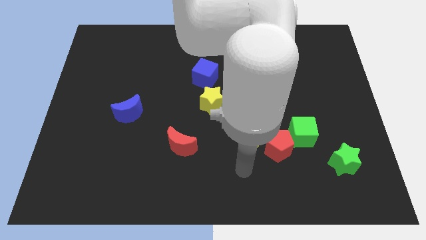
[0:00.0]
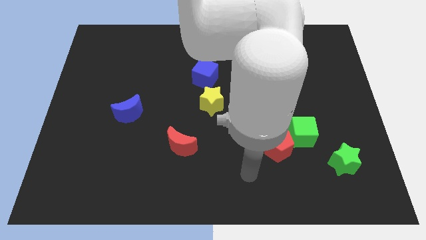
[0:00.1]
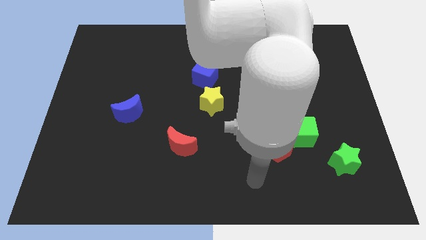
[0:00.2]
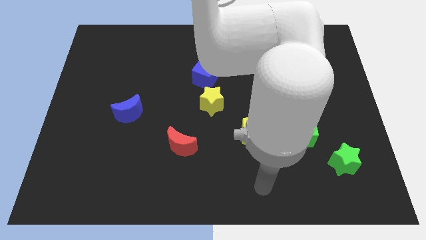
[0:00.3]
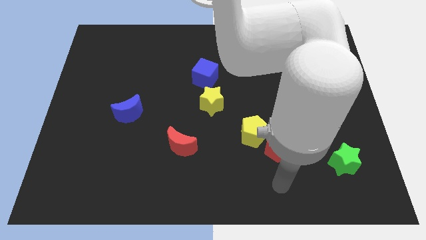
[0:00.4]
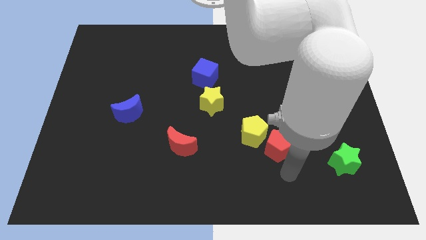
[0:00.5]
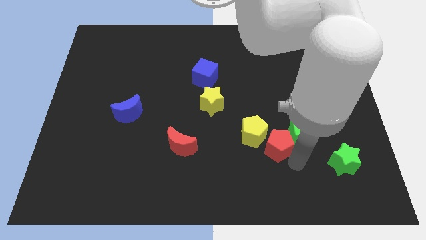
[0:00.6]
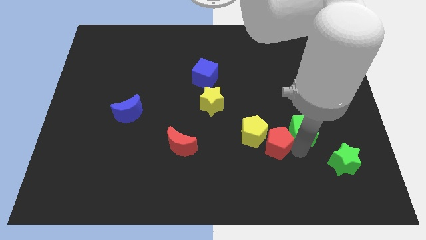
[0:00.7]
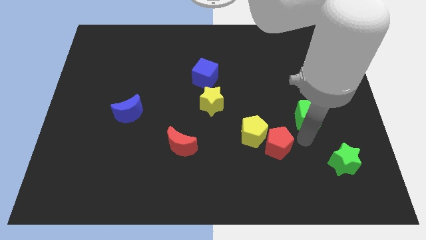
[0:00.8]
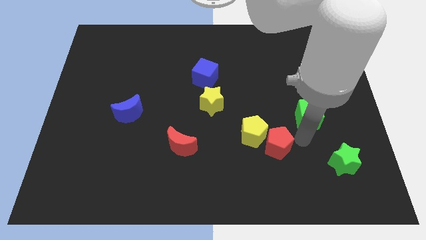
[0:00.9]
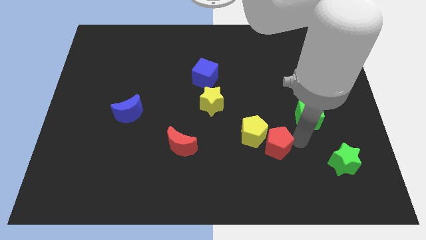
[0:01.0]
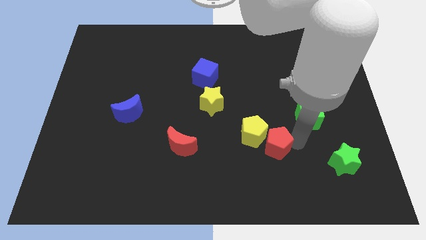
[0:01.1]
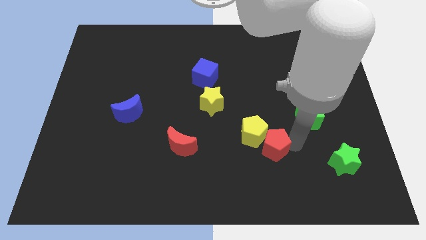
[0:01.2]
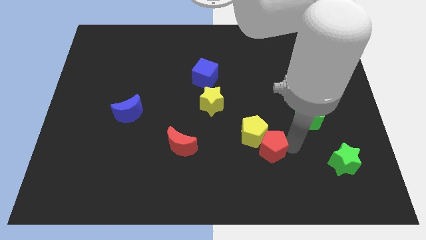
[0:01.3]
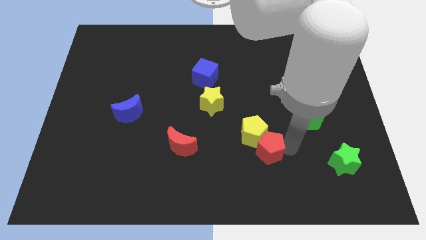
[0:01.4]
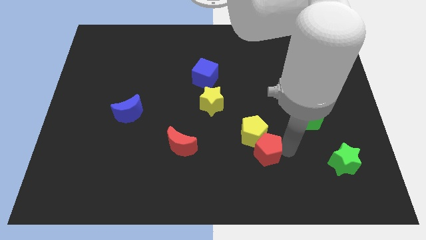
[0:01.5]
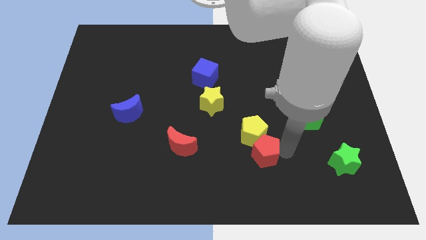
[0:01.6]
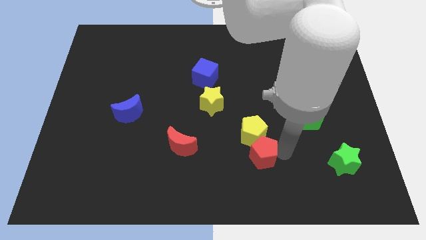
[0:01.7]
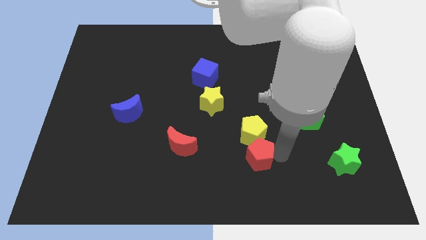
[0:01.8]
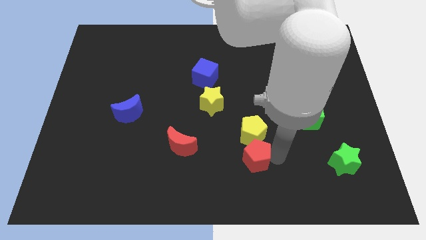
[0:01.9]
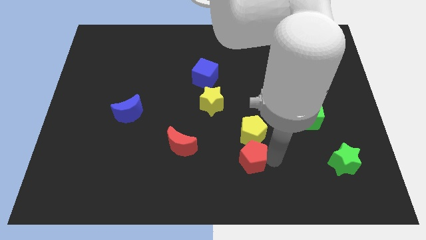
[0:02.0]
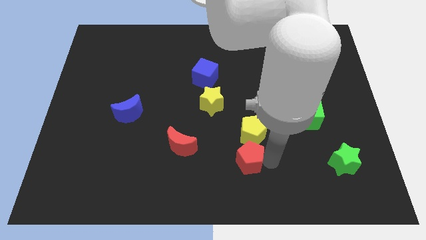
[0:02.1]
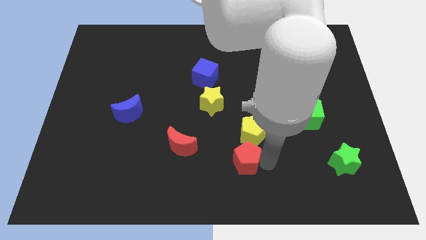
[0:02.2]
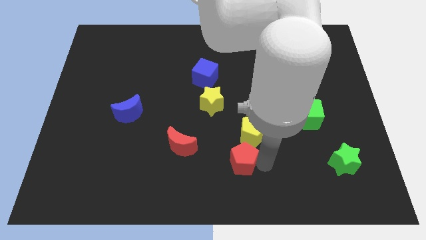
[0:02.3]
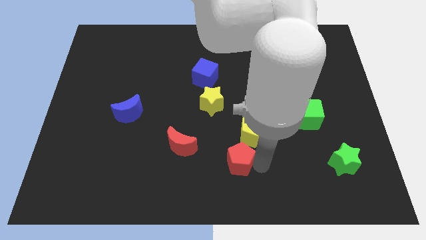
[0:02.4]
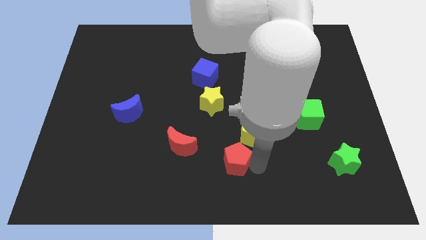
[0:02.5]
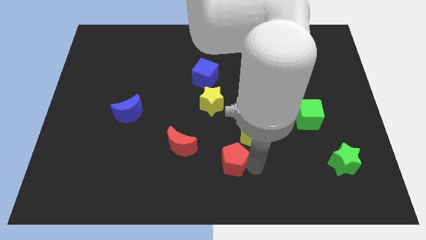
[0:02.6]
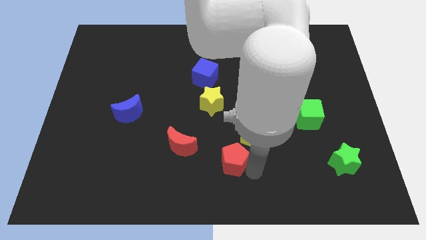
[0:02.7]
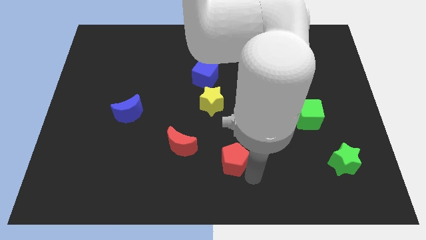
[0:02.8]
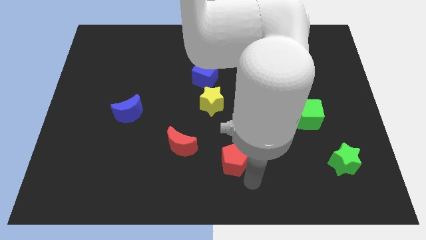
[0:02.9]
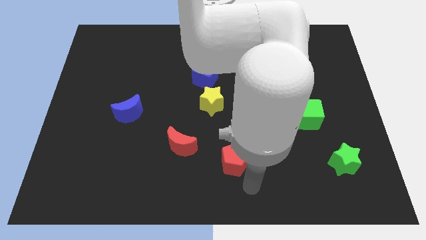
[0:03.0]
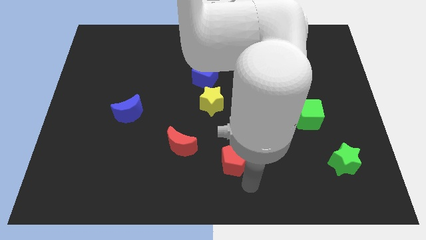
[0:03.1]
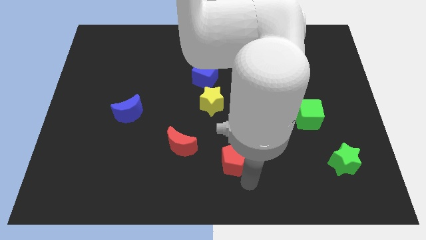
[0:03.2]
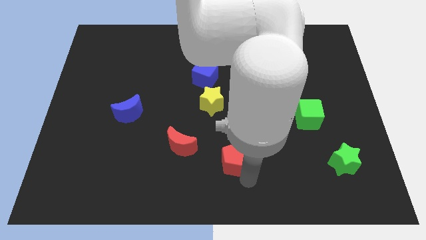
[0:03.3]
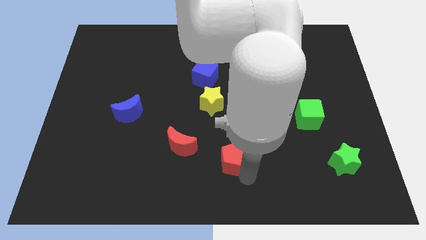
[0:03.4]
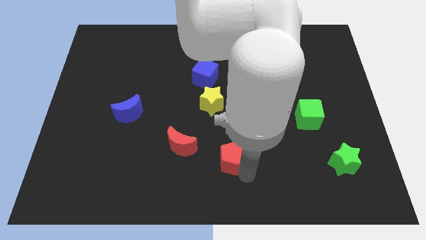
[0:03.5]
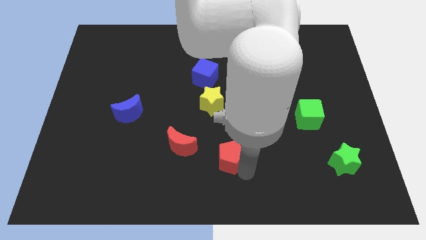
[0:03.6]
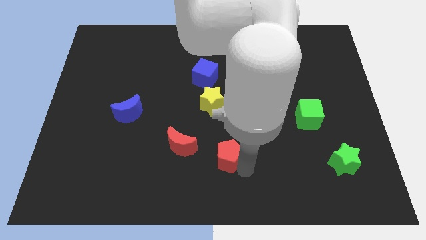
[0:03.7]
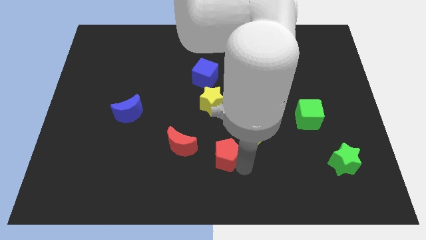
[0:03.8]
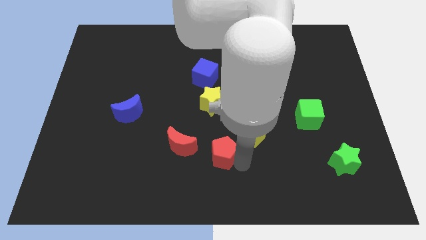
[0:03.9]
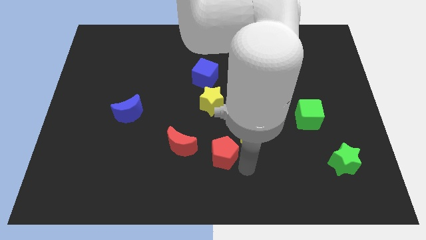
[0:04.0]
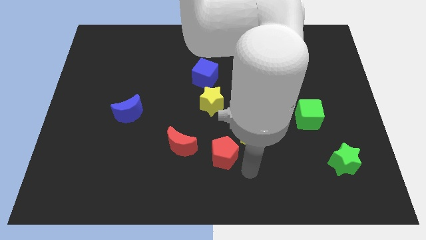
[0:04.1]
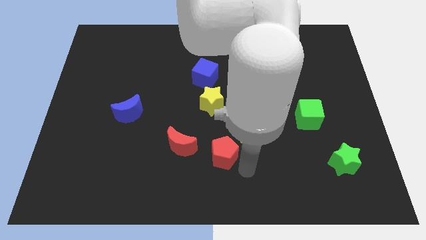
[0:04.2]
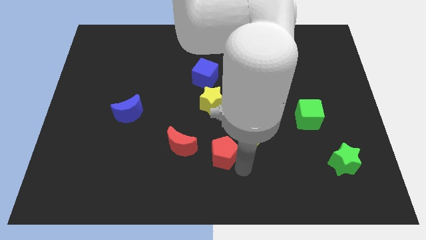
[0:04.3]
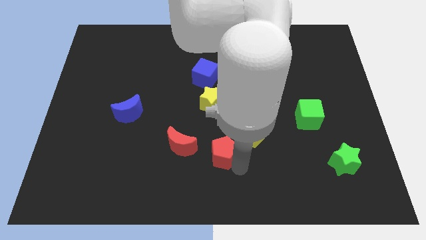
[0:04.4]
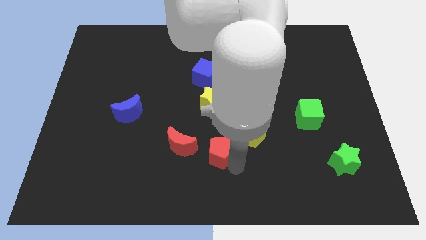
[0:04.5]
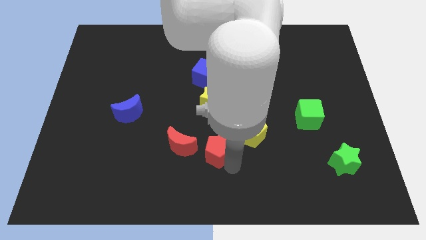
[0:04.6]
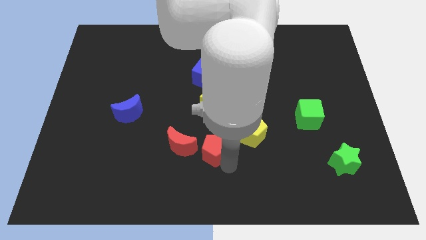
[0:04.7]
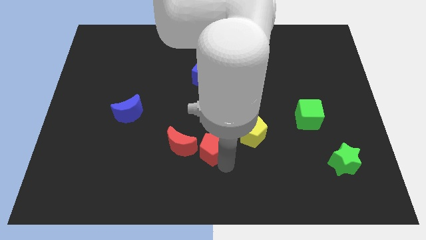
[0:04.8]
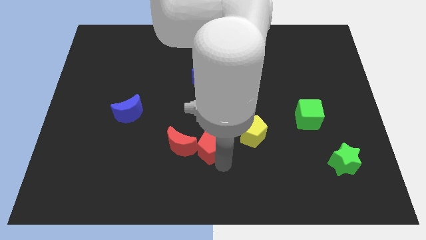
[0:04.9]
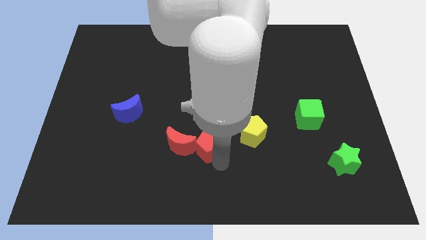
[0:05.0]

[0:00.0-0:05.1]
slide the red pentagon next to the red moon

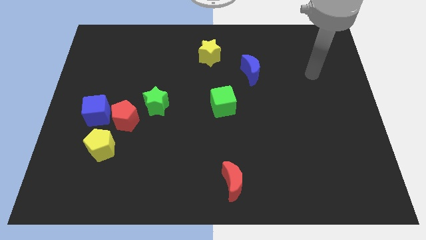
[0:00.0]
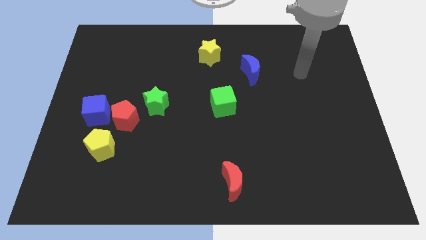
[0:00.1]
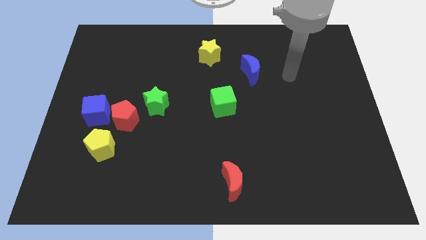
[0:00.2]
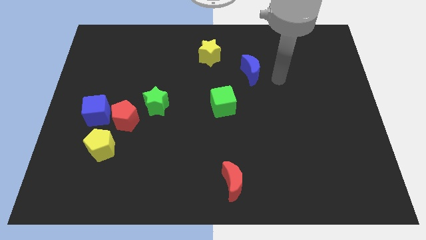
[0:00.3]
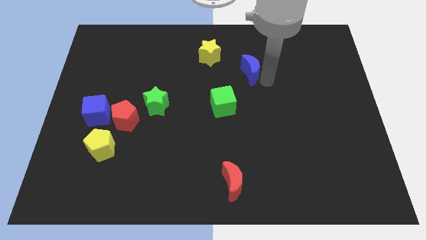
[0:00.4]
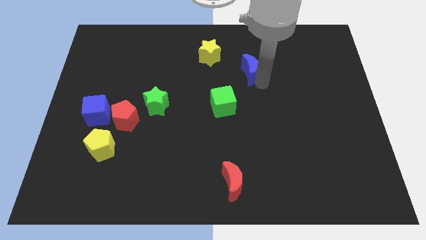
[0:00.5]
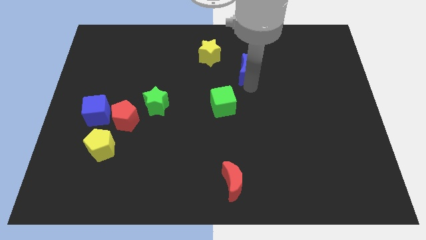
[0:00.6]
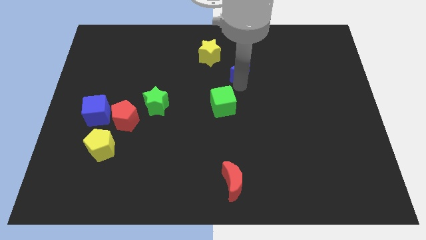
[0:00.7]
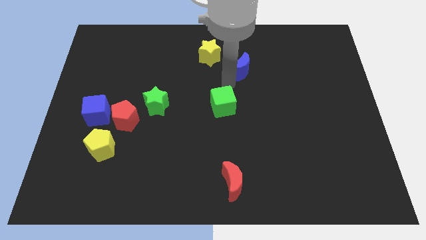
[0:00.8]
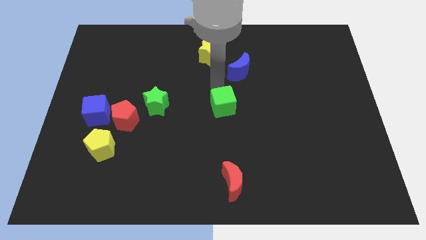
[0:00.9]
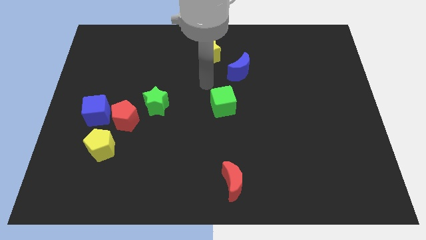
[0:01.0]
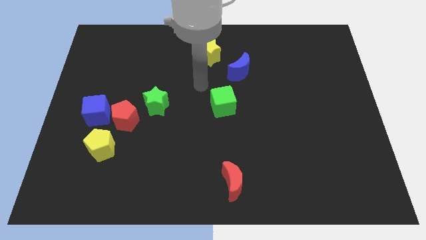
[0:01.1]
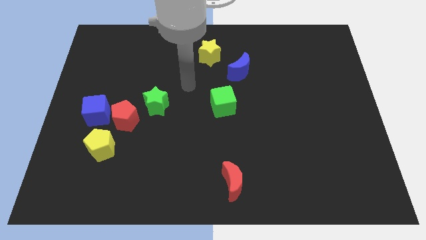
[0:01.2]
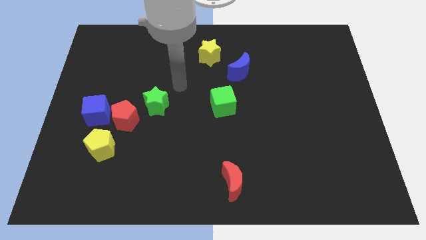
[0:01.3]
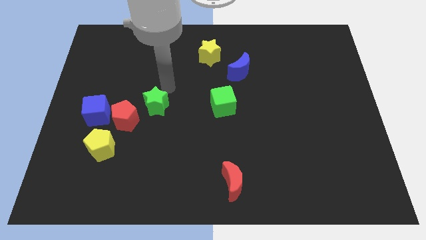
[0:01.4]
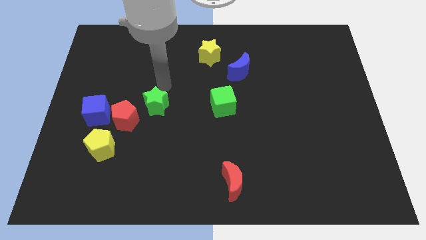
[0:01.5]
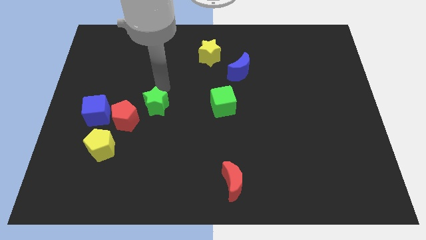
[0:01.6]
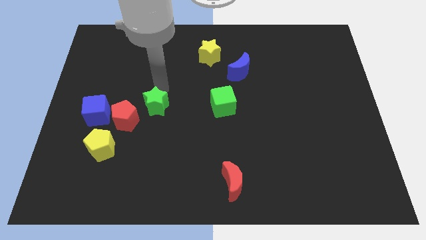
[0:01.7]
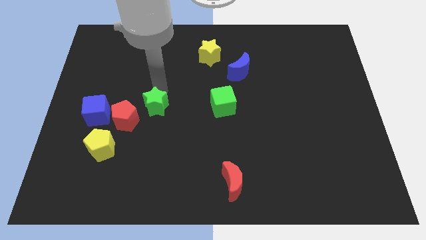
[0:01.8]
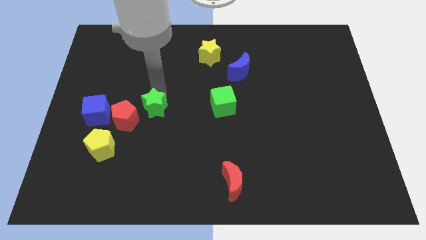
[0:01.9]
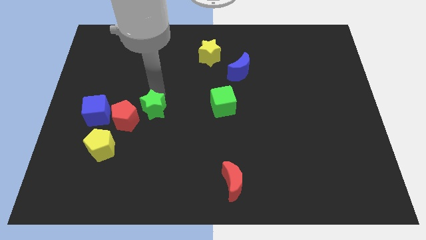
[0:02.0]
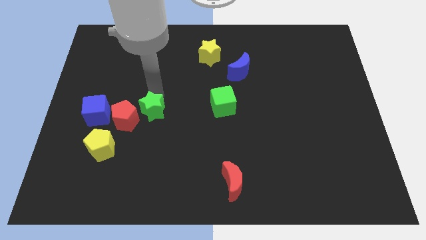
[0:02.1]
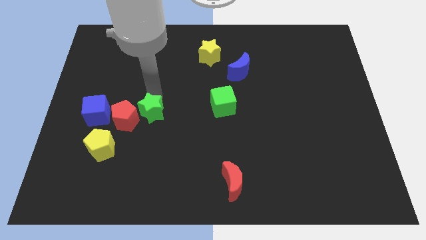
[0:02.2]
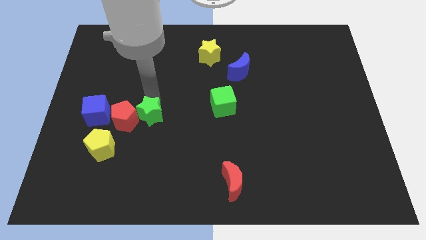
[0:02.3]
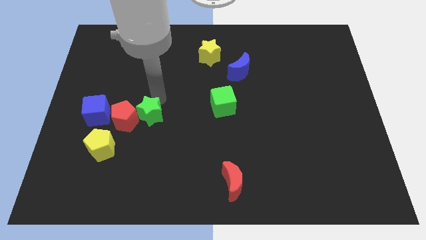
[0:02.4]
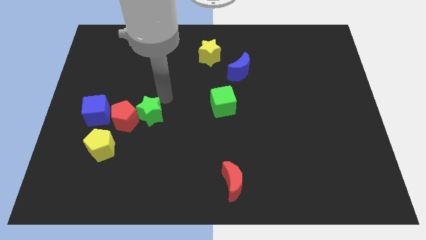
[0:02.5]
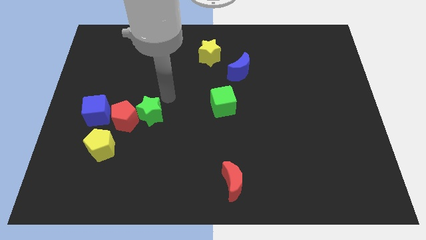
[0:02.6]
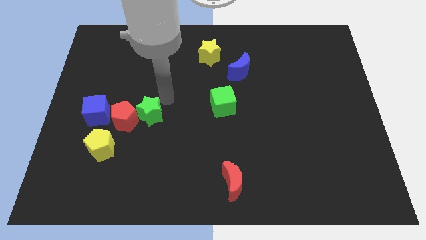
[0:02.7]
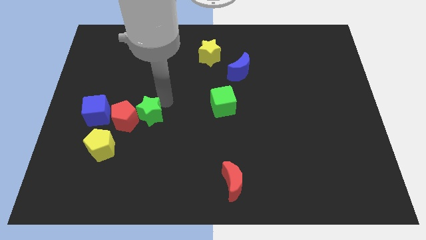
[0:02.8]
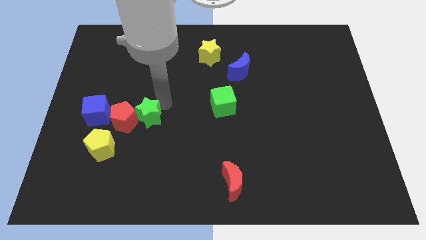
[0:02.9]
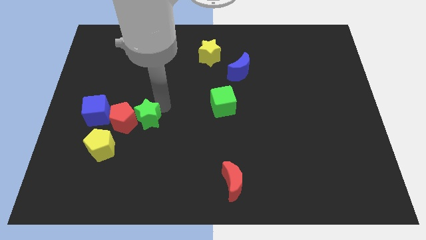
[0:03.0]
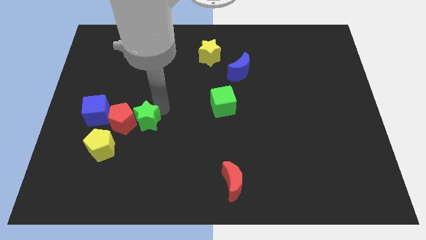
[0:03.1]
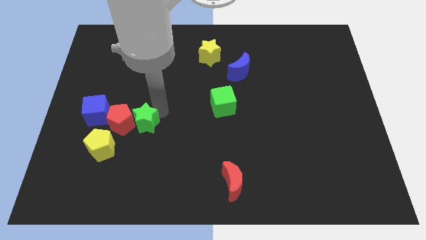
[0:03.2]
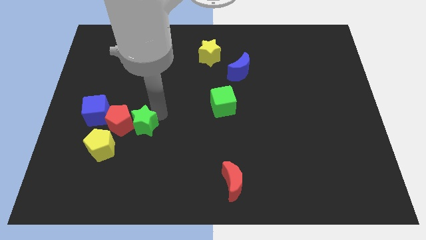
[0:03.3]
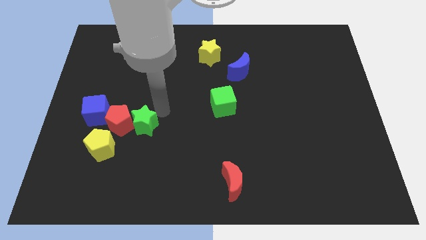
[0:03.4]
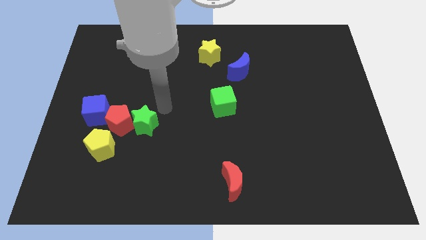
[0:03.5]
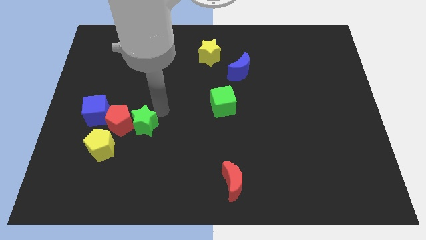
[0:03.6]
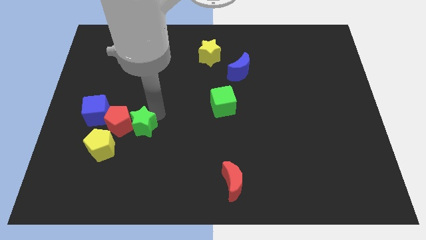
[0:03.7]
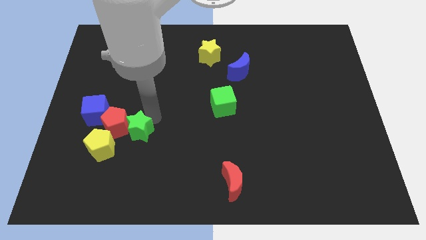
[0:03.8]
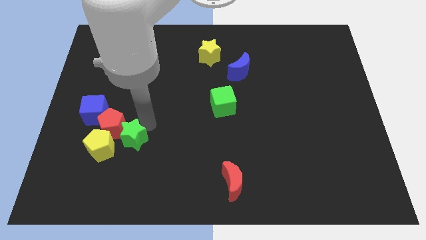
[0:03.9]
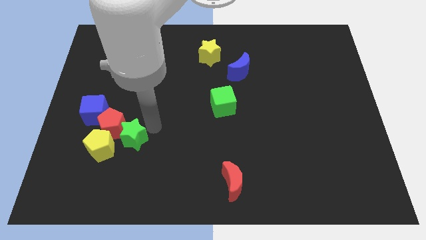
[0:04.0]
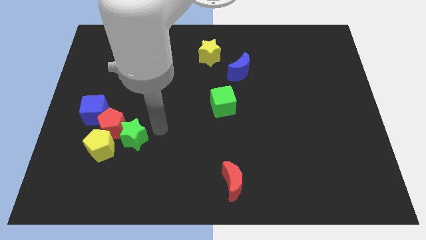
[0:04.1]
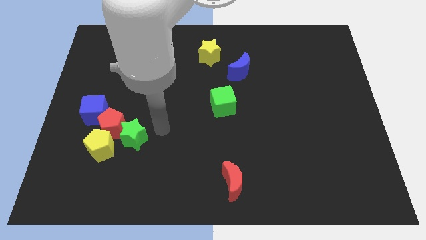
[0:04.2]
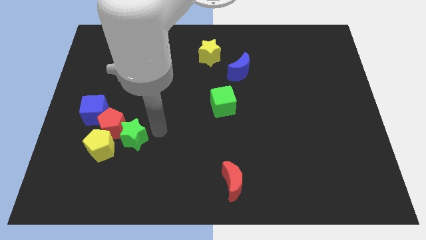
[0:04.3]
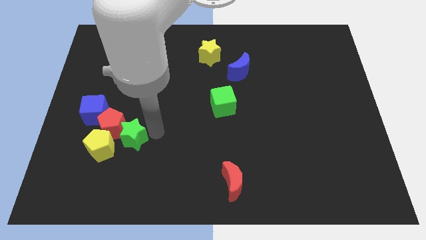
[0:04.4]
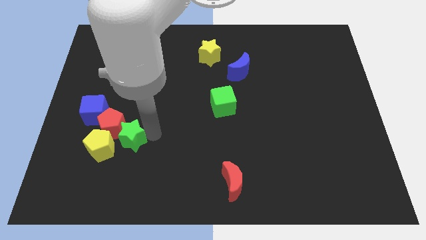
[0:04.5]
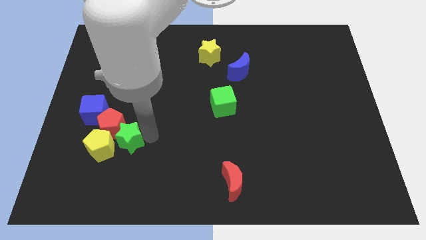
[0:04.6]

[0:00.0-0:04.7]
push the green star next to the yellow pentagon
